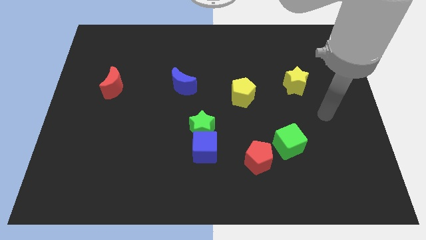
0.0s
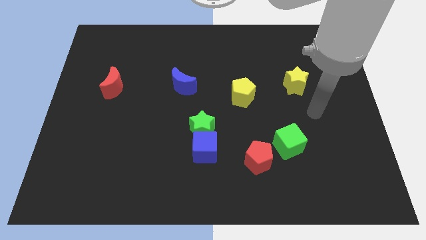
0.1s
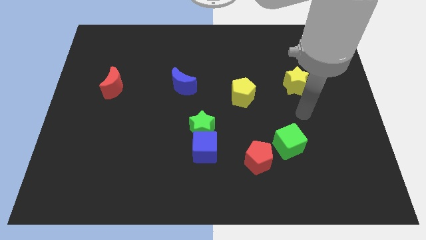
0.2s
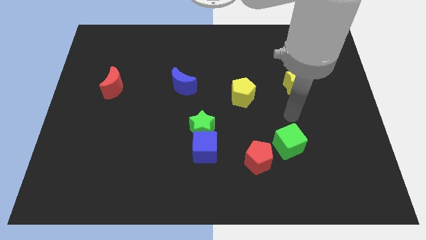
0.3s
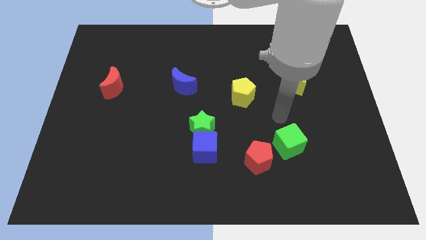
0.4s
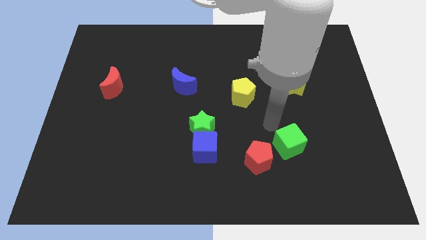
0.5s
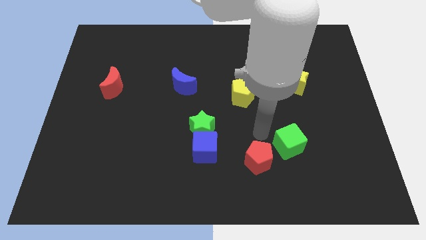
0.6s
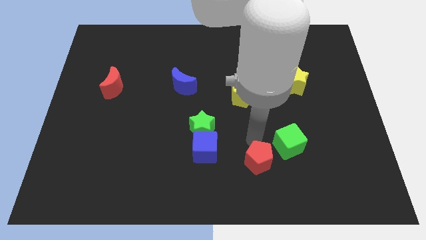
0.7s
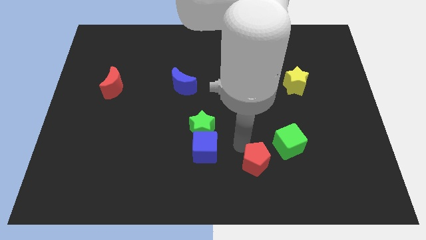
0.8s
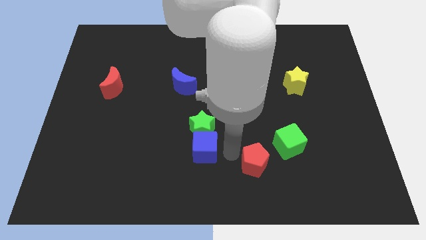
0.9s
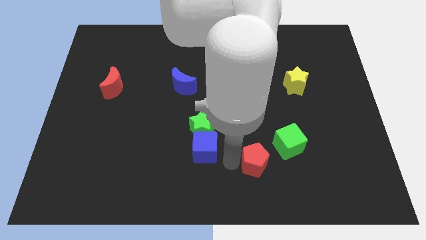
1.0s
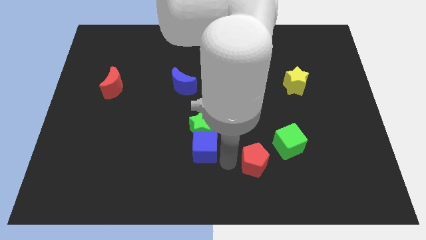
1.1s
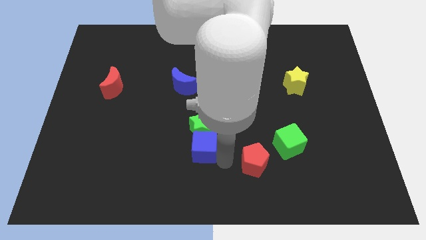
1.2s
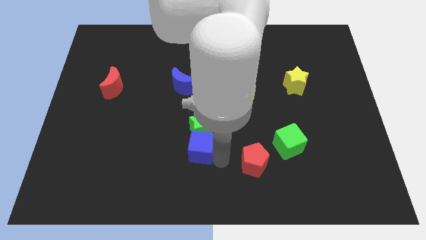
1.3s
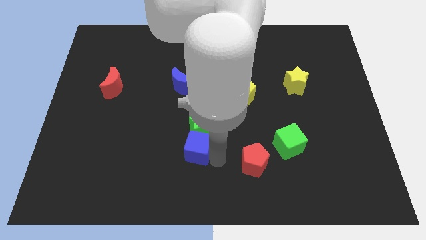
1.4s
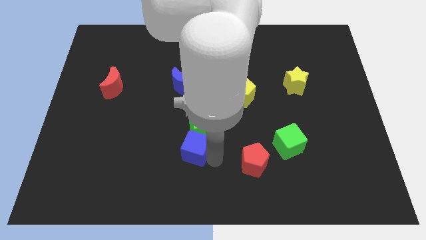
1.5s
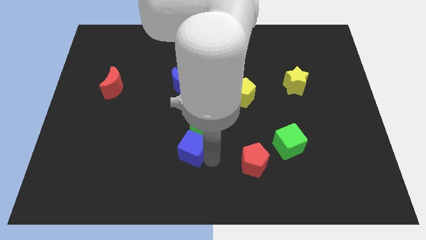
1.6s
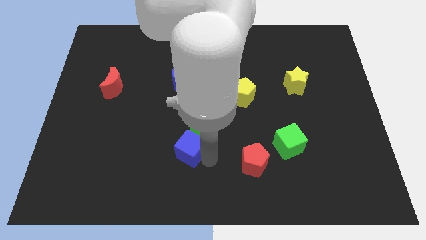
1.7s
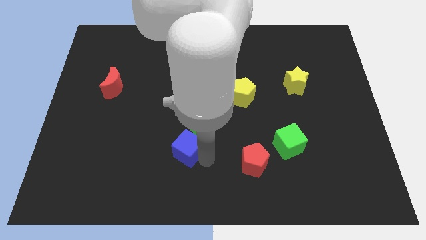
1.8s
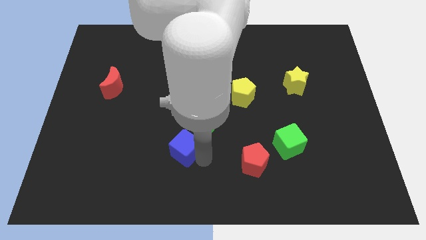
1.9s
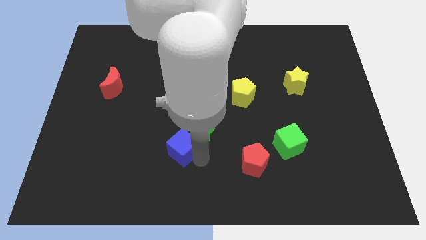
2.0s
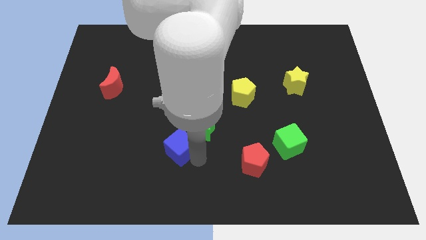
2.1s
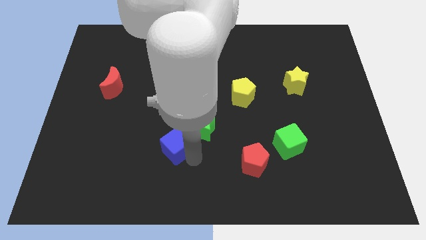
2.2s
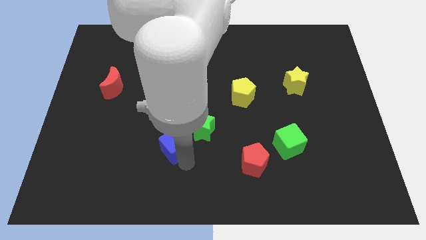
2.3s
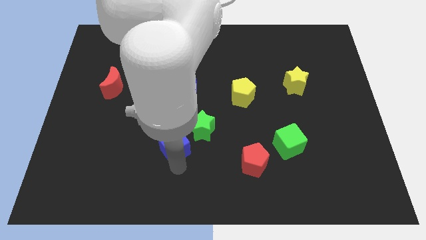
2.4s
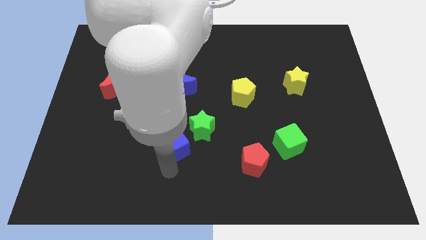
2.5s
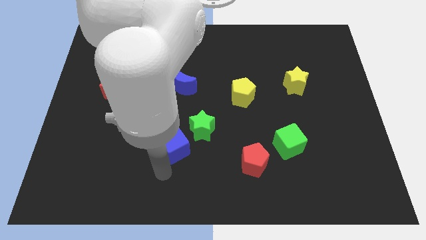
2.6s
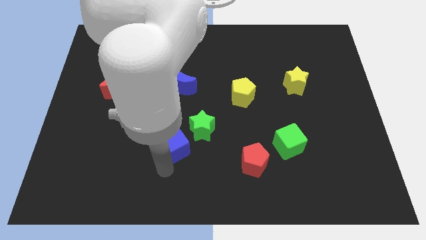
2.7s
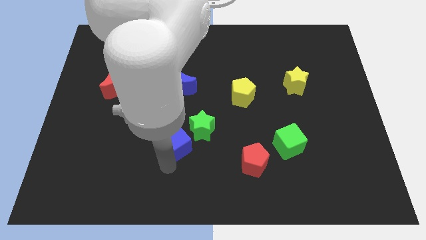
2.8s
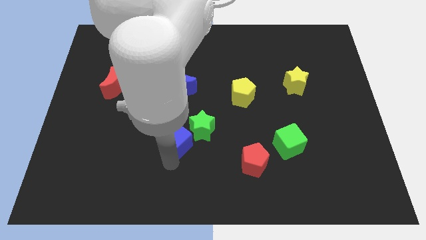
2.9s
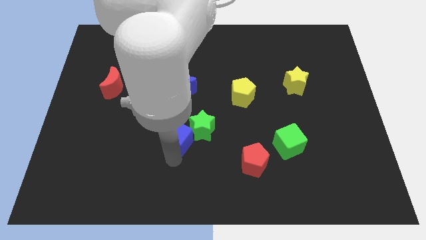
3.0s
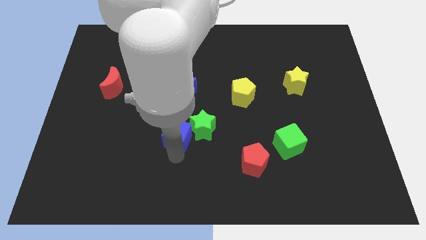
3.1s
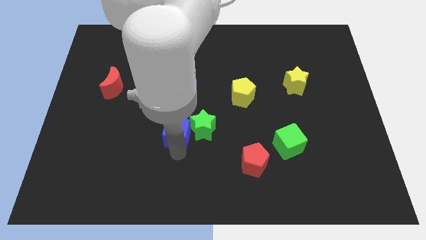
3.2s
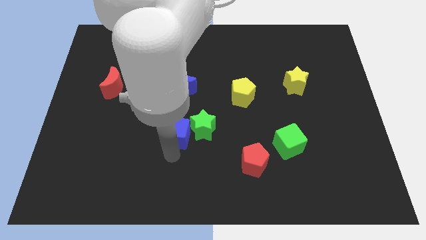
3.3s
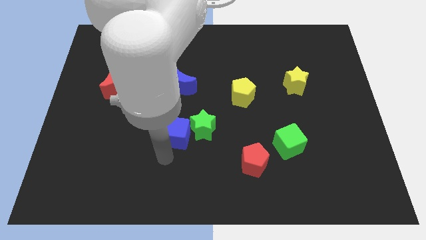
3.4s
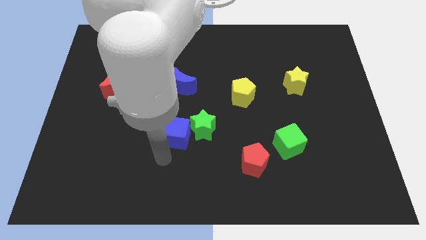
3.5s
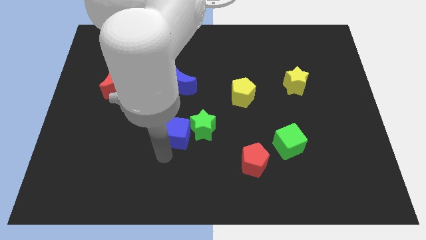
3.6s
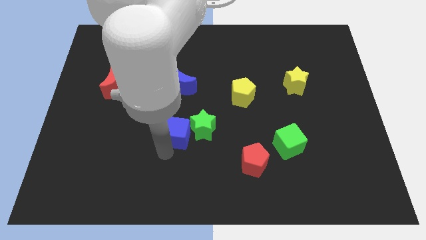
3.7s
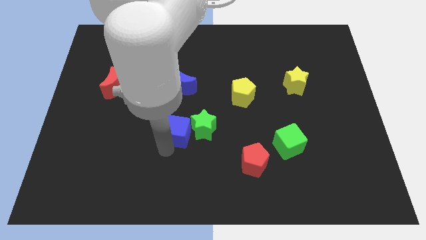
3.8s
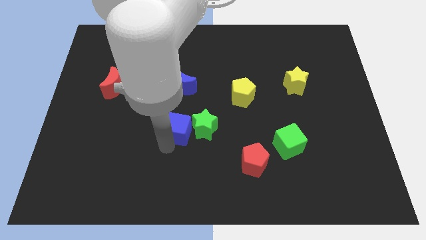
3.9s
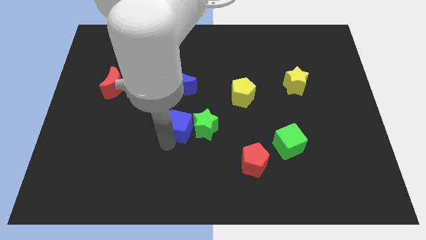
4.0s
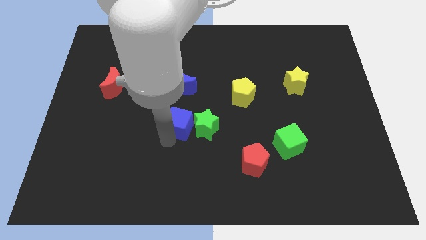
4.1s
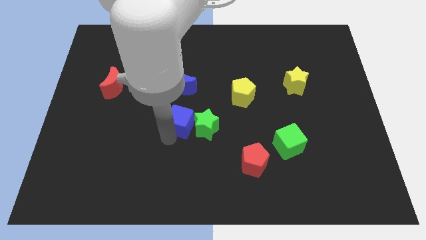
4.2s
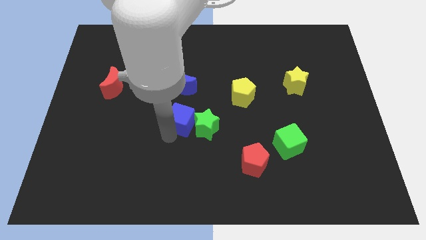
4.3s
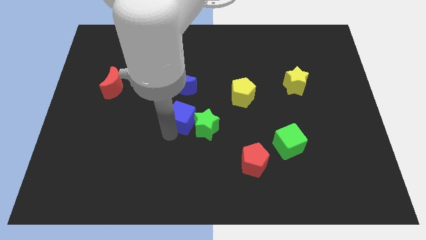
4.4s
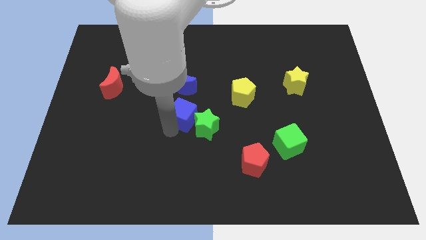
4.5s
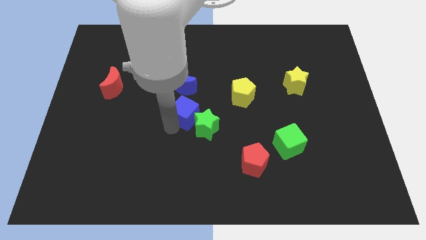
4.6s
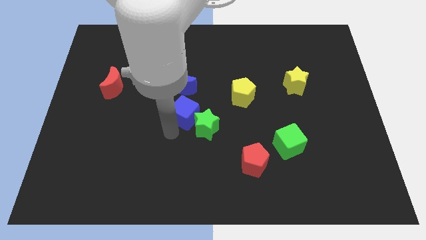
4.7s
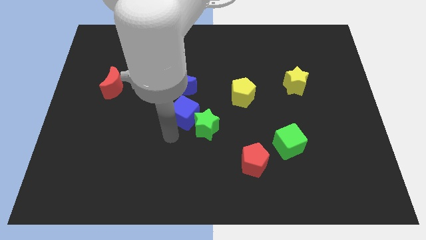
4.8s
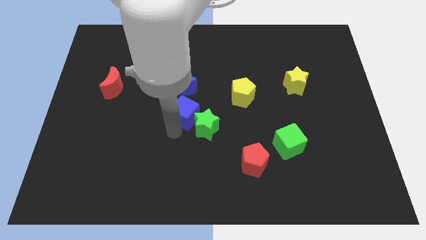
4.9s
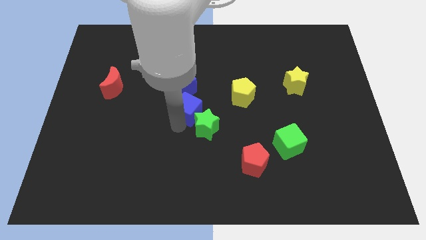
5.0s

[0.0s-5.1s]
slide the blue cube left of the yellow pentagon

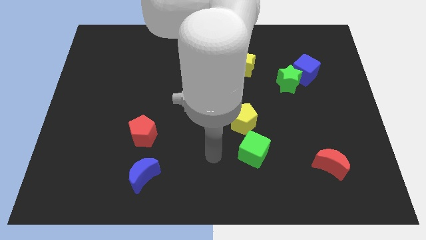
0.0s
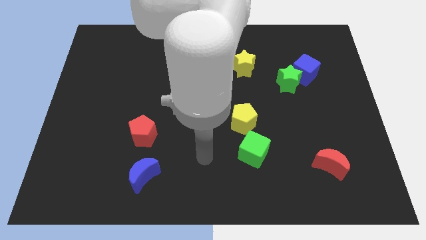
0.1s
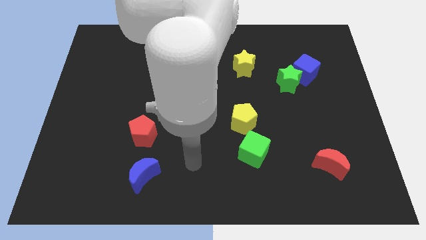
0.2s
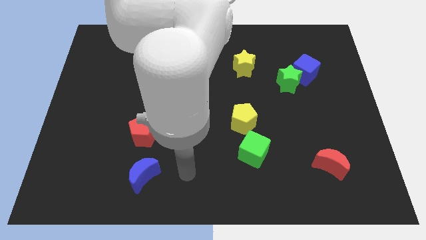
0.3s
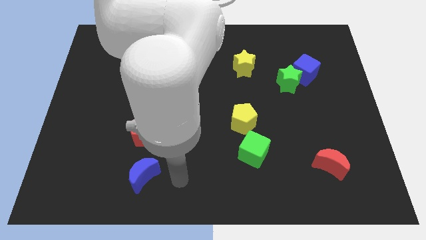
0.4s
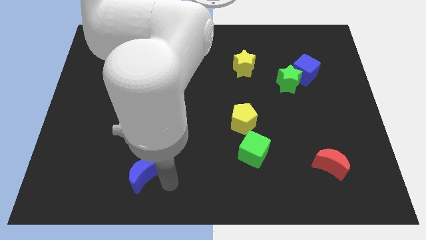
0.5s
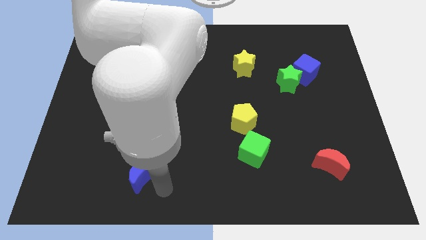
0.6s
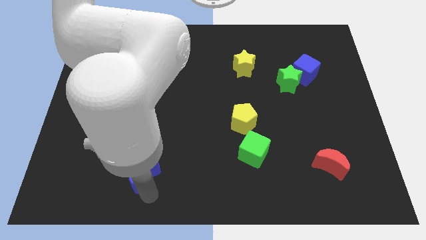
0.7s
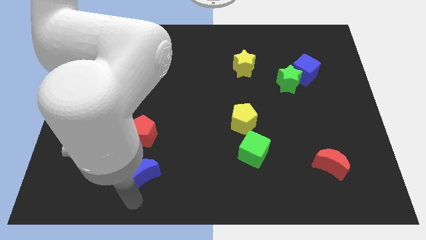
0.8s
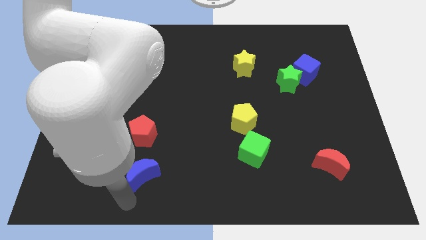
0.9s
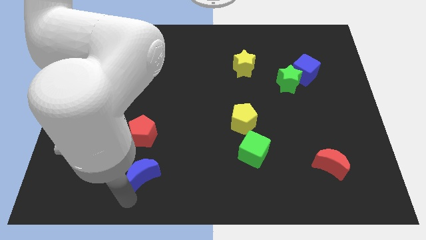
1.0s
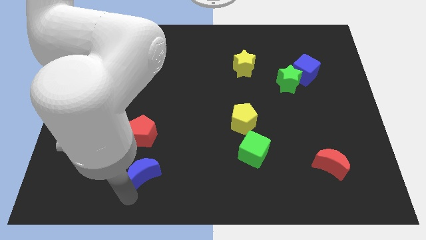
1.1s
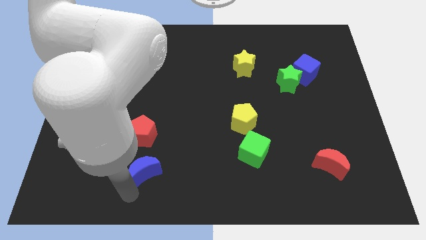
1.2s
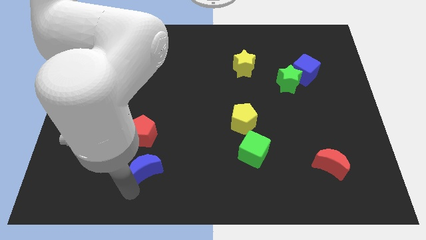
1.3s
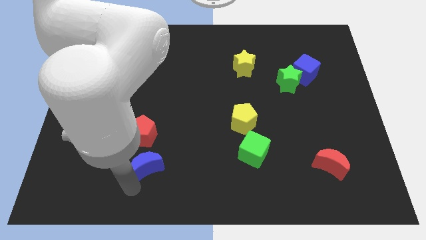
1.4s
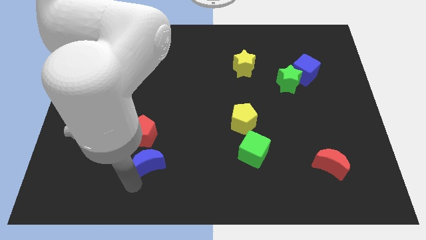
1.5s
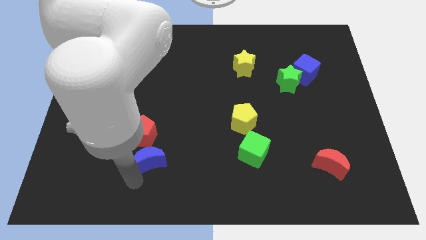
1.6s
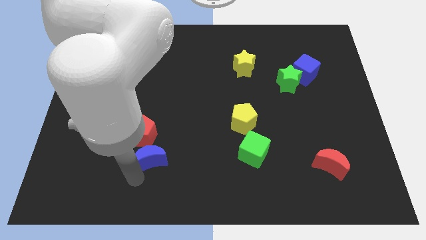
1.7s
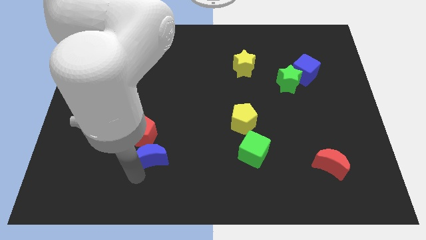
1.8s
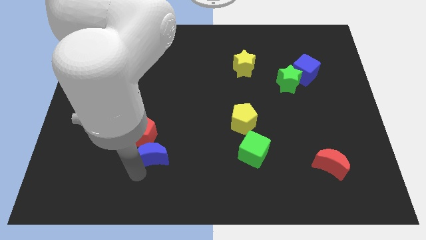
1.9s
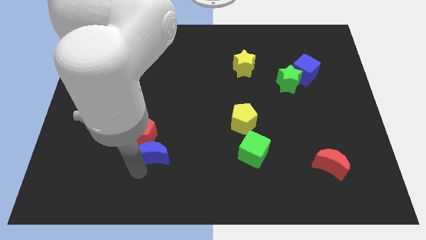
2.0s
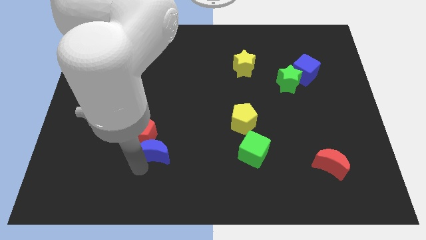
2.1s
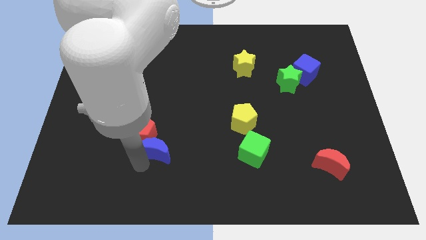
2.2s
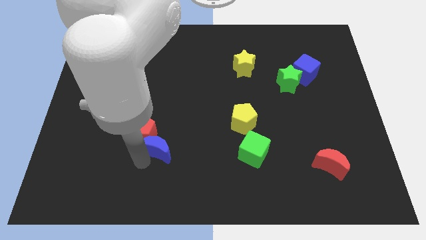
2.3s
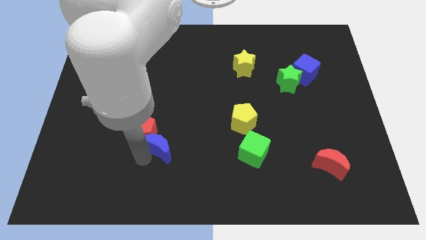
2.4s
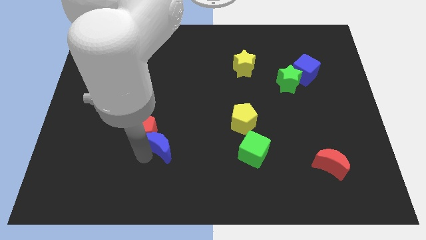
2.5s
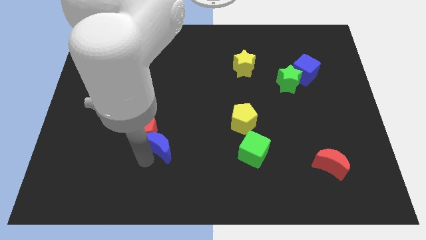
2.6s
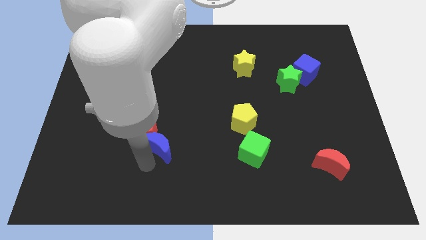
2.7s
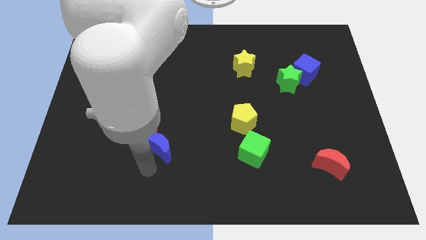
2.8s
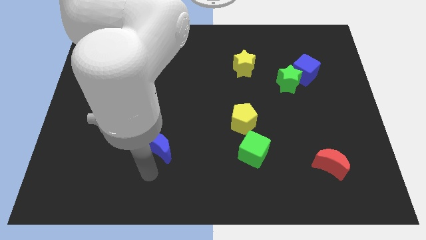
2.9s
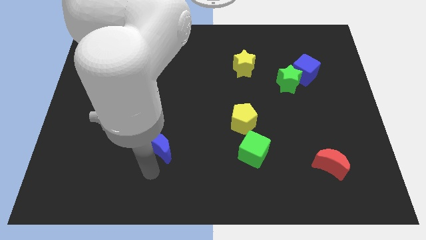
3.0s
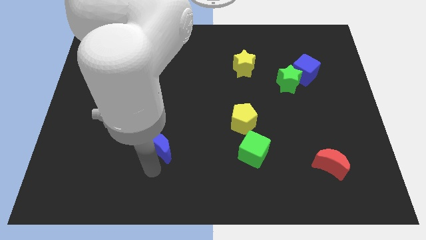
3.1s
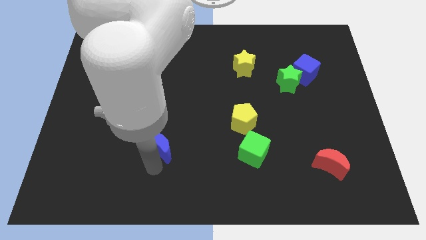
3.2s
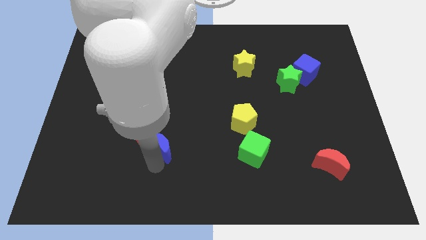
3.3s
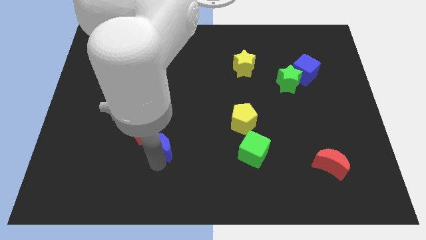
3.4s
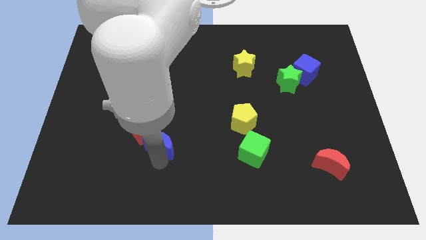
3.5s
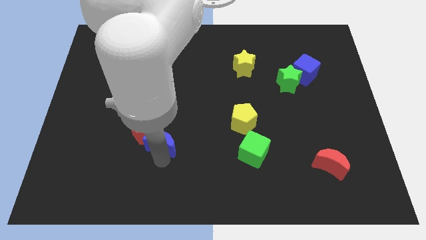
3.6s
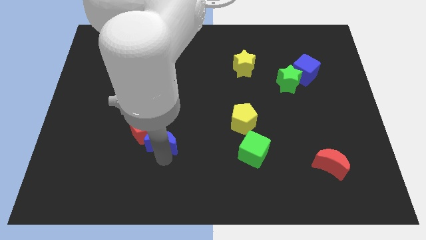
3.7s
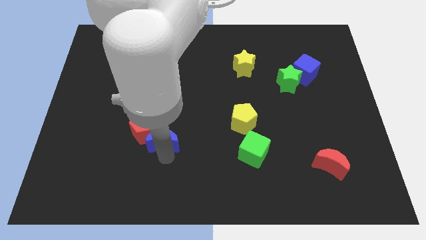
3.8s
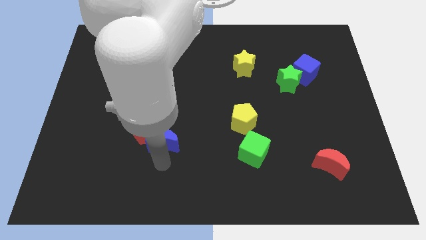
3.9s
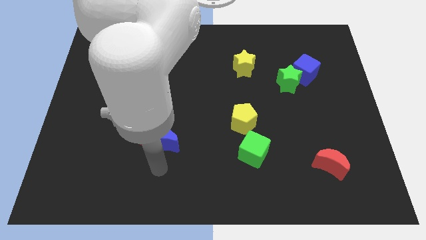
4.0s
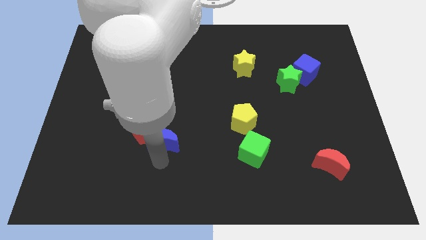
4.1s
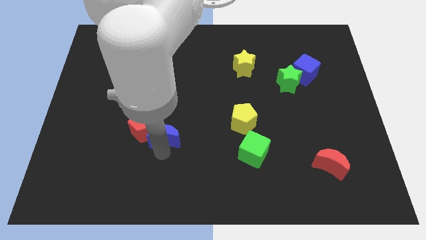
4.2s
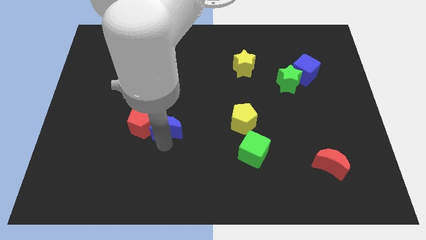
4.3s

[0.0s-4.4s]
move the blue moon to the top right side of the red pentagon
